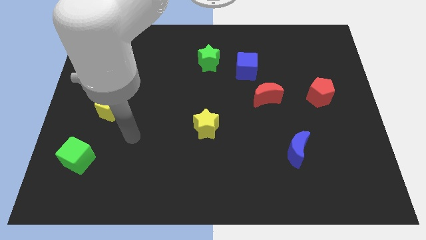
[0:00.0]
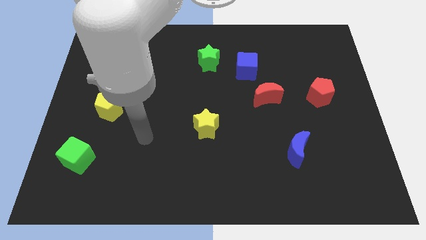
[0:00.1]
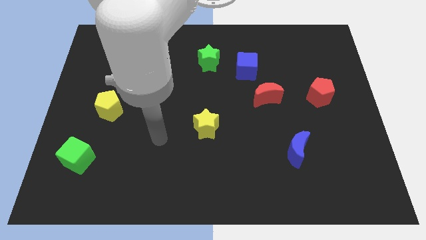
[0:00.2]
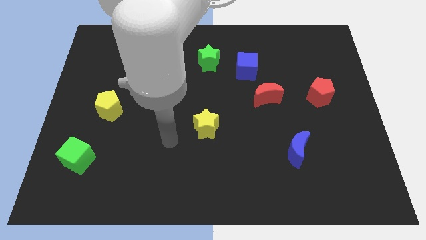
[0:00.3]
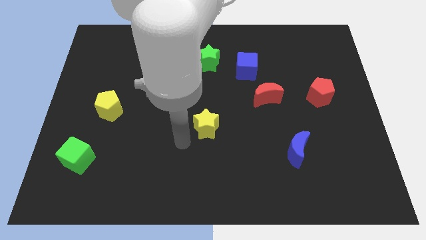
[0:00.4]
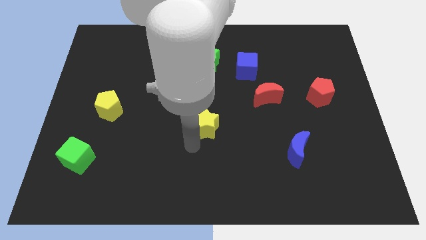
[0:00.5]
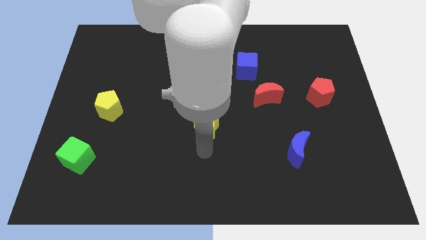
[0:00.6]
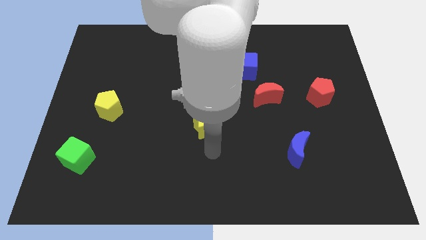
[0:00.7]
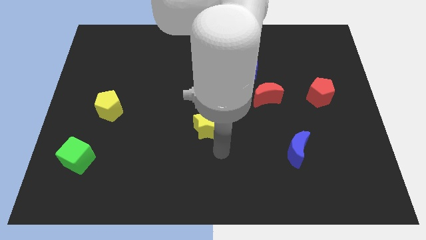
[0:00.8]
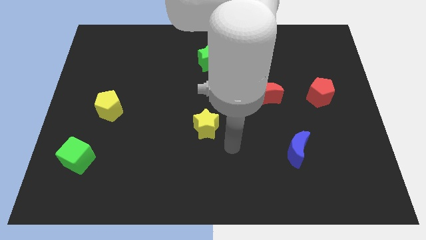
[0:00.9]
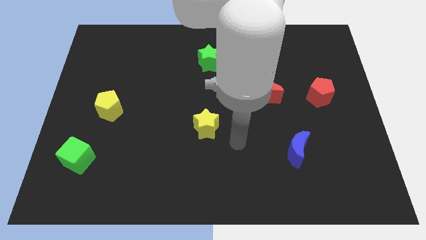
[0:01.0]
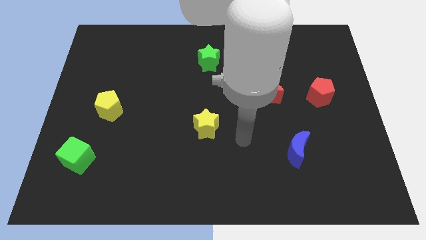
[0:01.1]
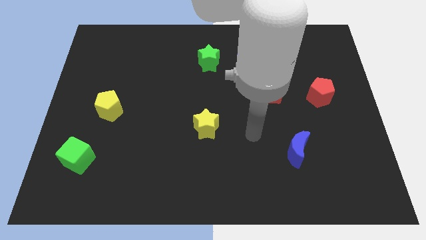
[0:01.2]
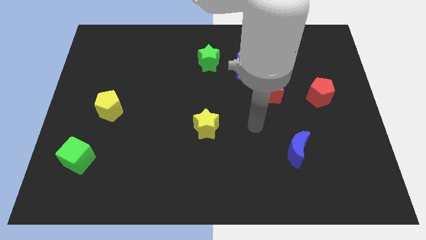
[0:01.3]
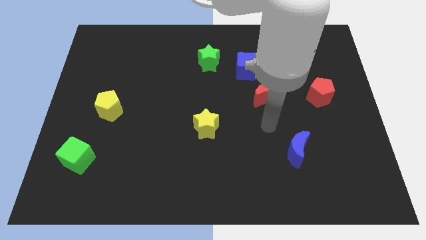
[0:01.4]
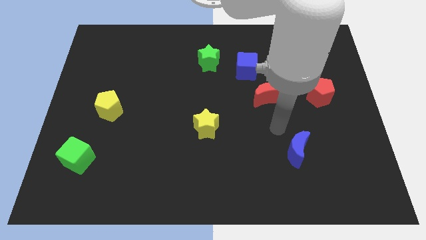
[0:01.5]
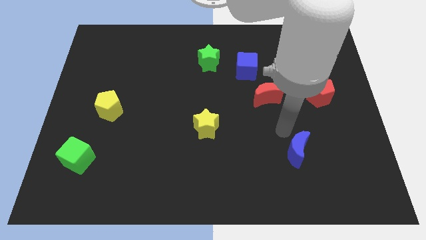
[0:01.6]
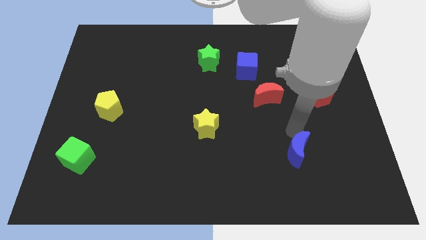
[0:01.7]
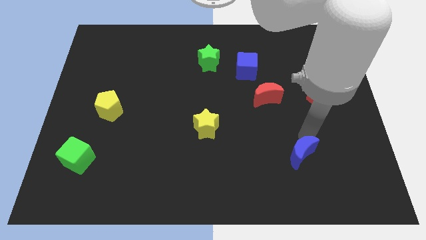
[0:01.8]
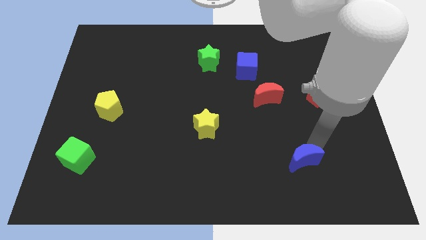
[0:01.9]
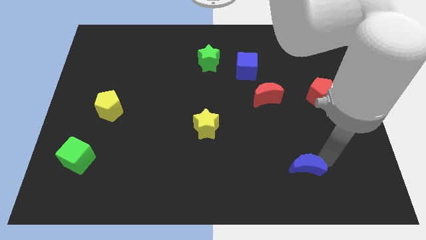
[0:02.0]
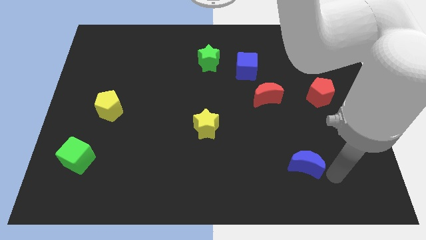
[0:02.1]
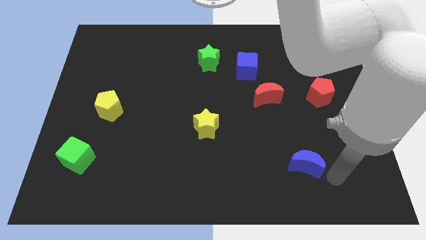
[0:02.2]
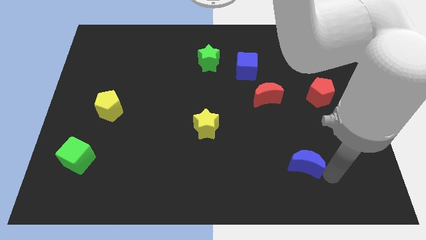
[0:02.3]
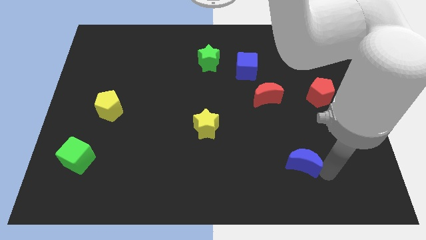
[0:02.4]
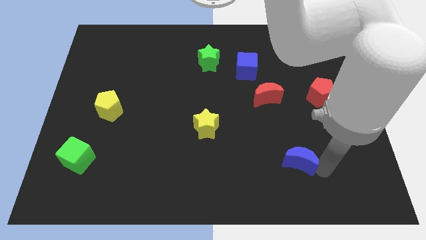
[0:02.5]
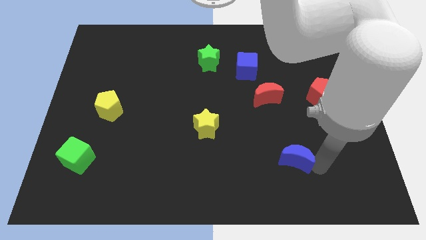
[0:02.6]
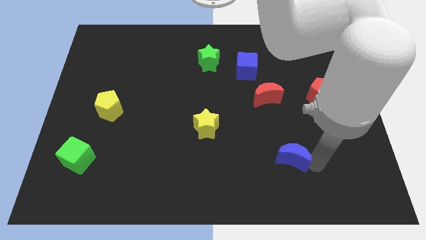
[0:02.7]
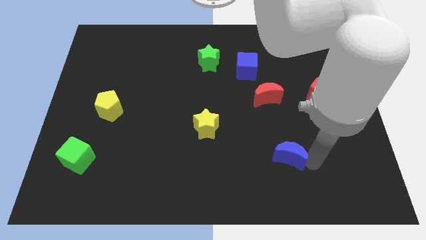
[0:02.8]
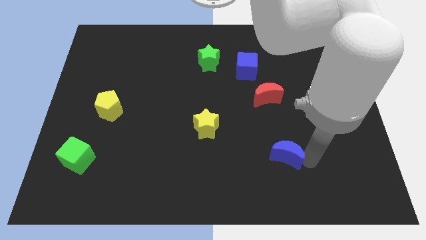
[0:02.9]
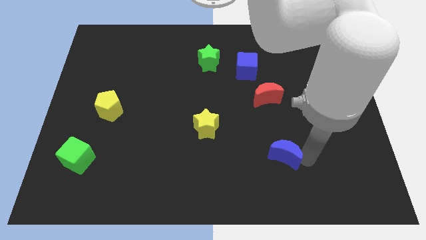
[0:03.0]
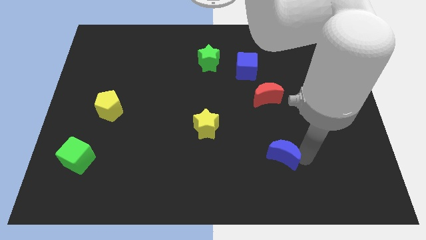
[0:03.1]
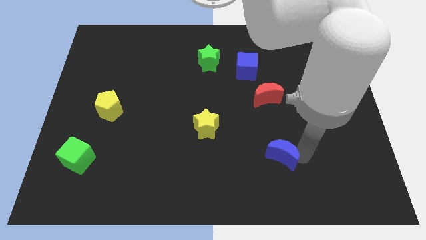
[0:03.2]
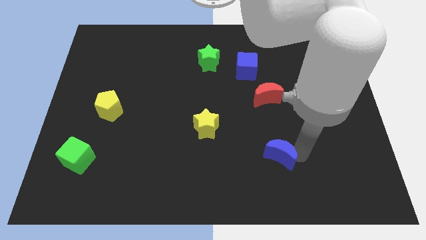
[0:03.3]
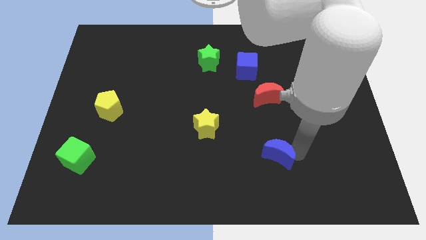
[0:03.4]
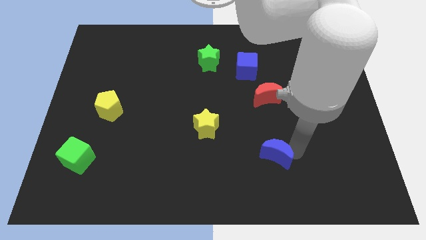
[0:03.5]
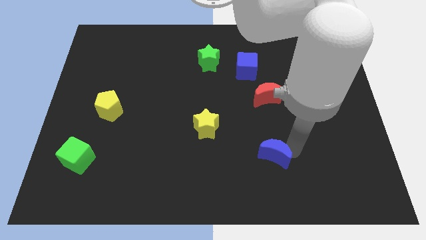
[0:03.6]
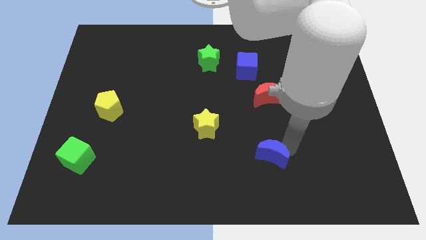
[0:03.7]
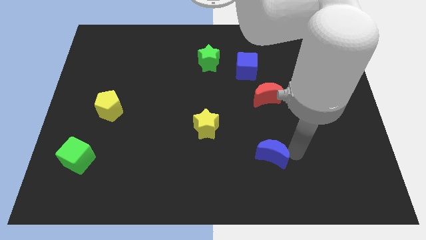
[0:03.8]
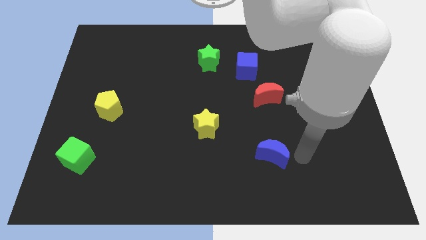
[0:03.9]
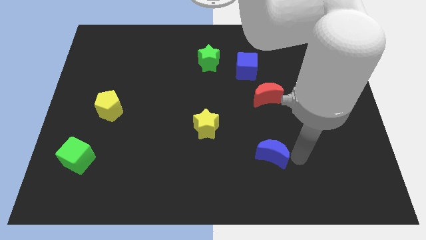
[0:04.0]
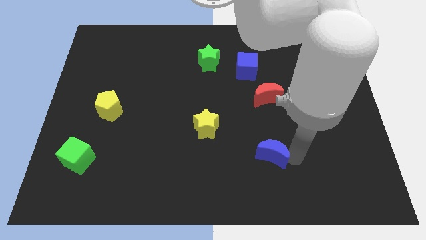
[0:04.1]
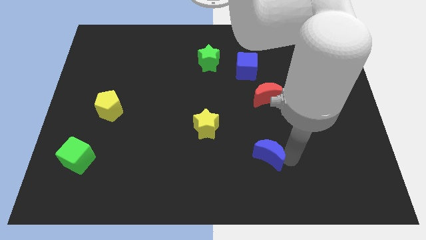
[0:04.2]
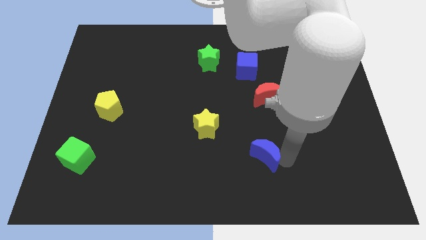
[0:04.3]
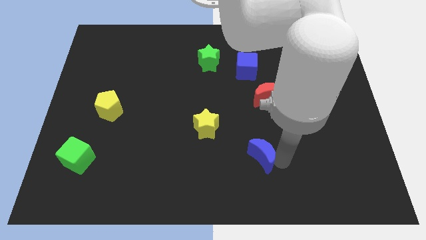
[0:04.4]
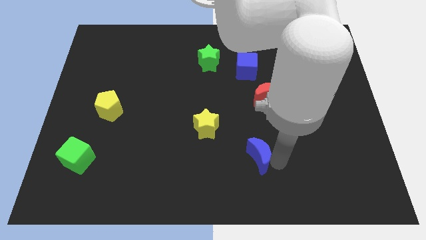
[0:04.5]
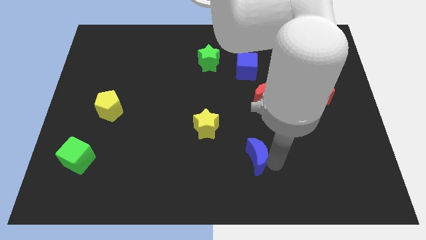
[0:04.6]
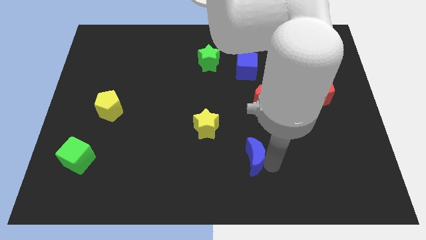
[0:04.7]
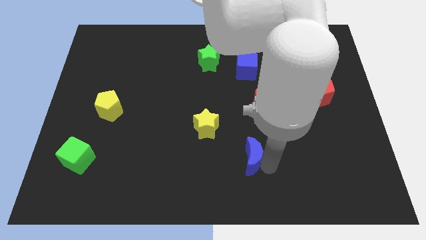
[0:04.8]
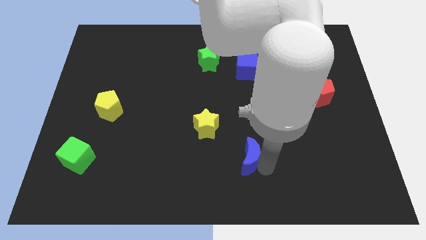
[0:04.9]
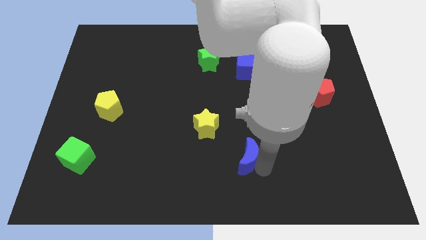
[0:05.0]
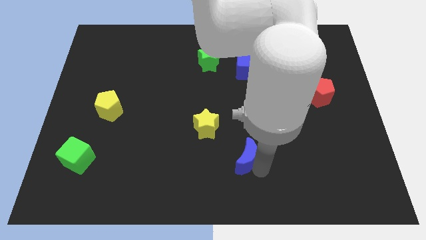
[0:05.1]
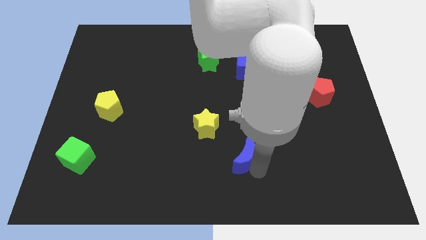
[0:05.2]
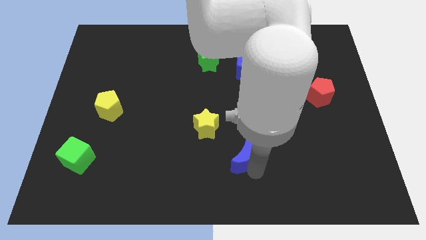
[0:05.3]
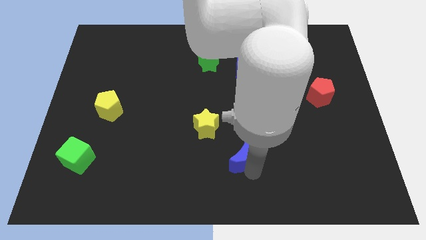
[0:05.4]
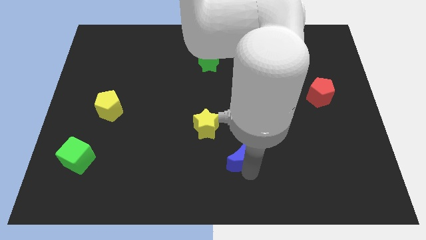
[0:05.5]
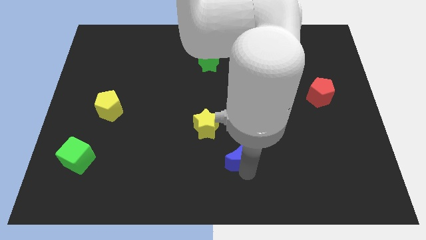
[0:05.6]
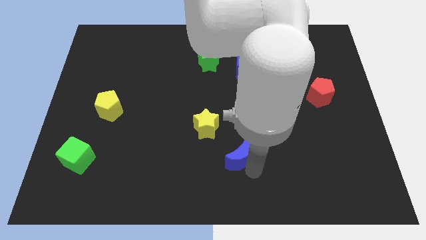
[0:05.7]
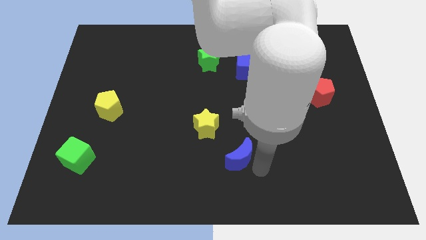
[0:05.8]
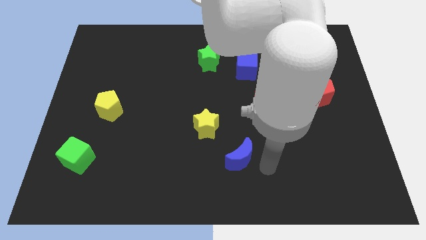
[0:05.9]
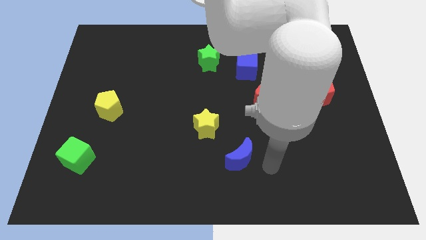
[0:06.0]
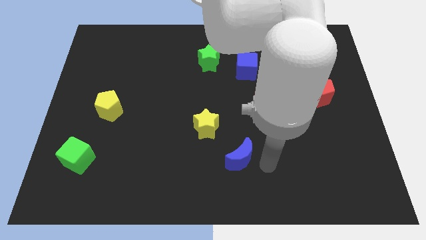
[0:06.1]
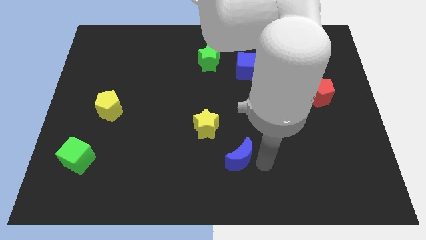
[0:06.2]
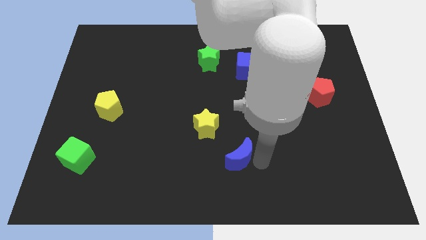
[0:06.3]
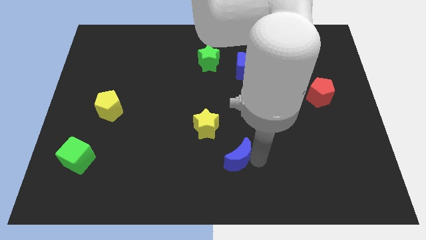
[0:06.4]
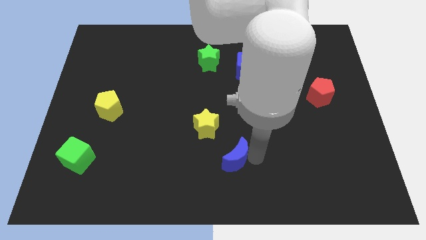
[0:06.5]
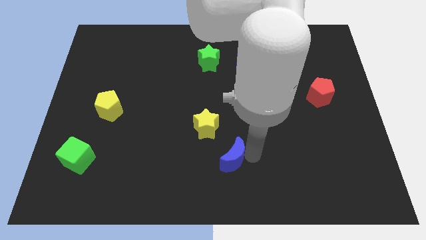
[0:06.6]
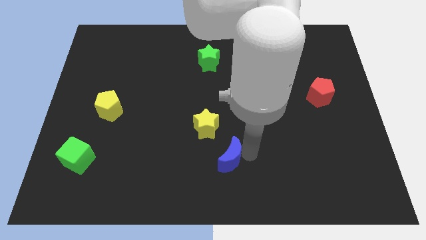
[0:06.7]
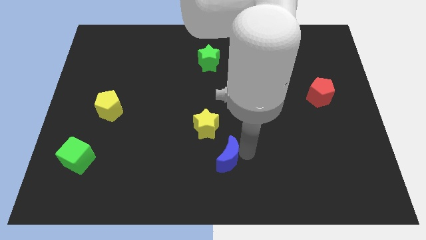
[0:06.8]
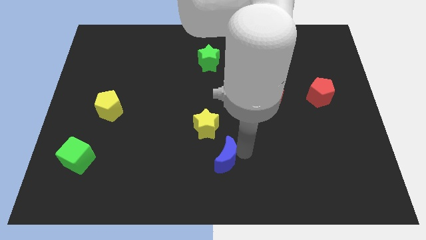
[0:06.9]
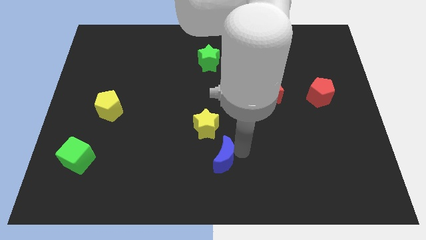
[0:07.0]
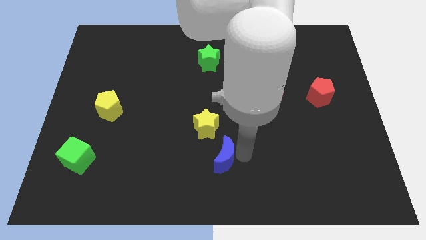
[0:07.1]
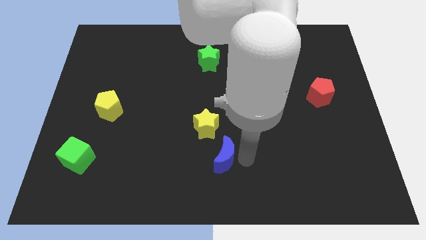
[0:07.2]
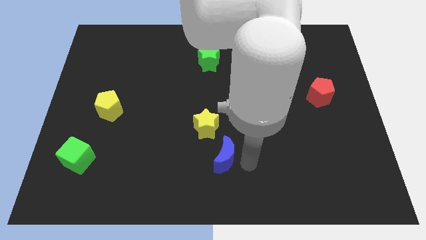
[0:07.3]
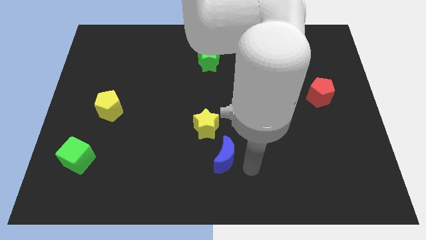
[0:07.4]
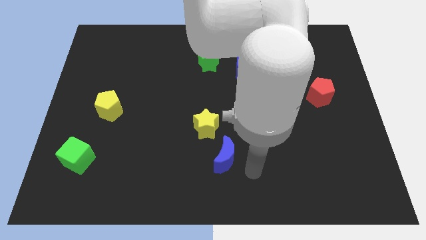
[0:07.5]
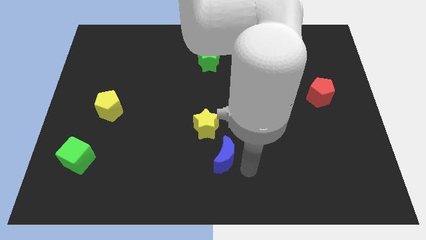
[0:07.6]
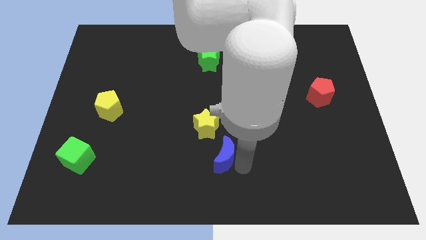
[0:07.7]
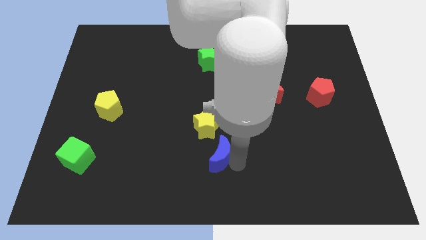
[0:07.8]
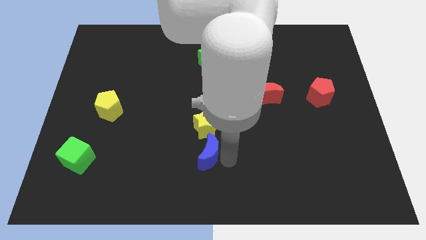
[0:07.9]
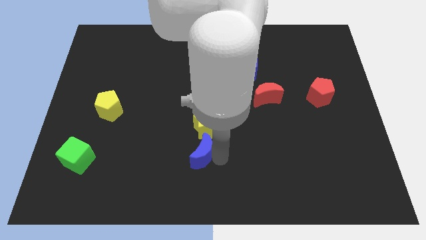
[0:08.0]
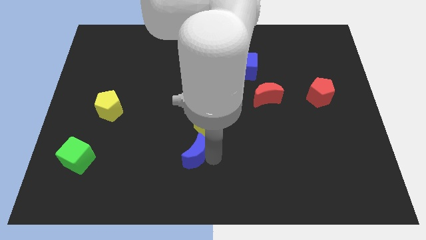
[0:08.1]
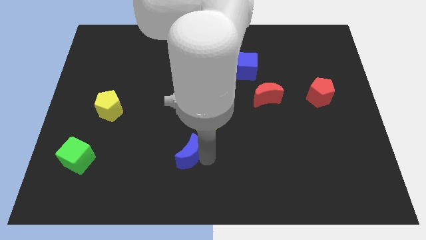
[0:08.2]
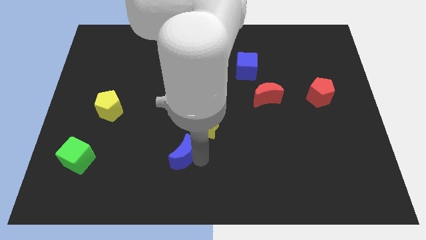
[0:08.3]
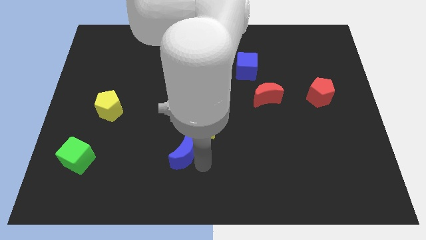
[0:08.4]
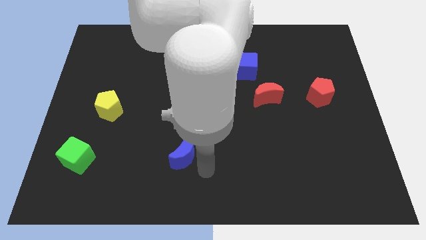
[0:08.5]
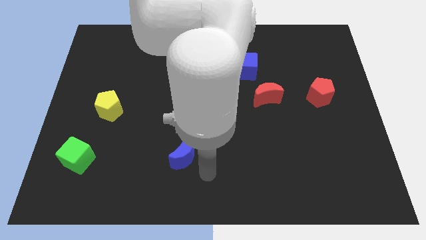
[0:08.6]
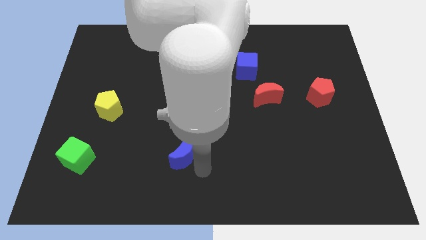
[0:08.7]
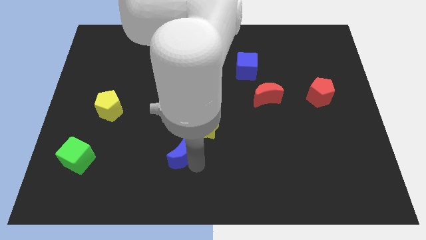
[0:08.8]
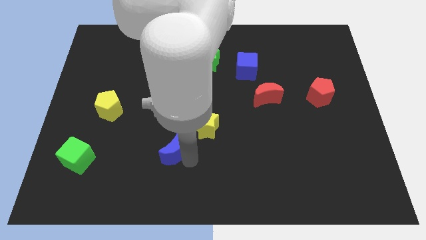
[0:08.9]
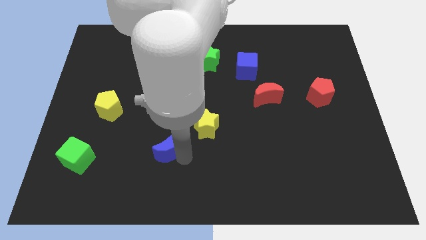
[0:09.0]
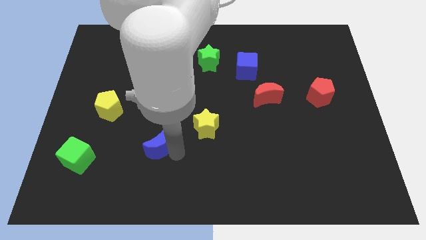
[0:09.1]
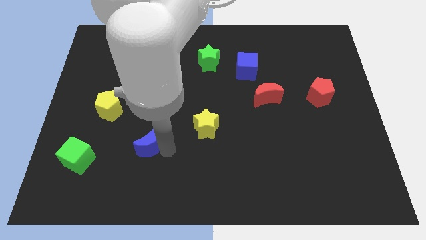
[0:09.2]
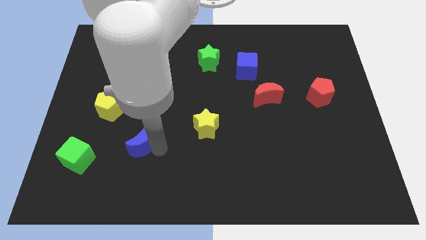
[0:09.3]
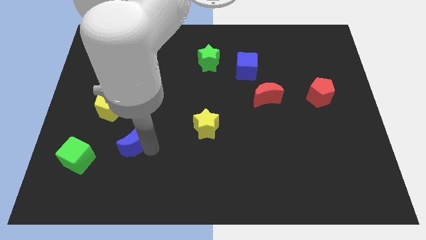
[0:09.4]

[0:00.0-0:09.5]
move the blue moon to the bottom right of the yellow pentagon
